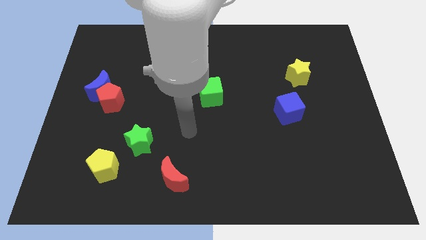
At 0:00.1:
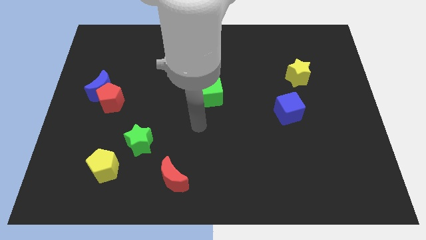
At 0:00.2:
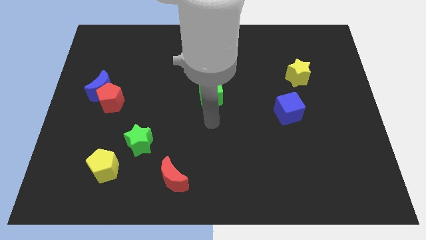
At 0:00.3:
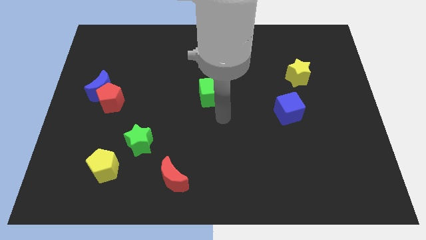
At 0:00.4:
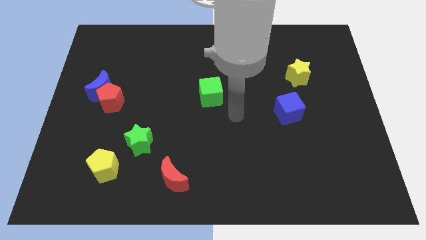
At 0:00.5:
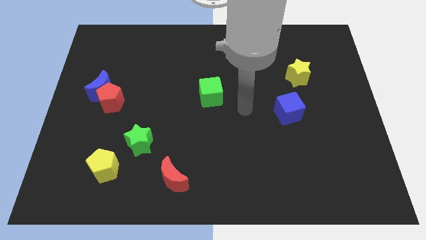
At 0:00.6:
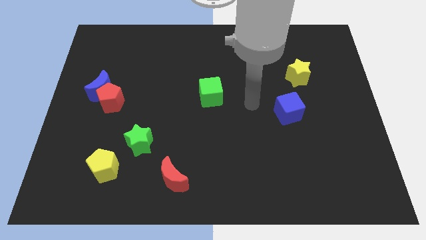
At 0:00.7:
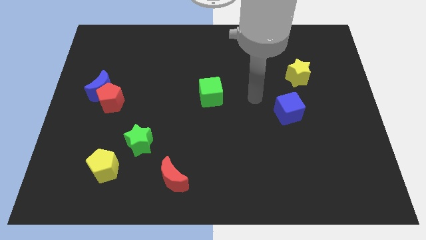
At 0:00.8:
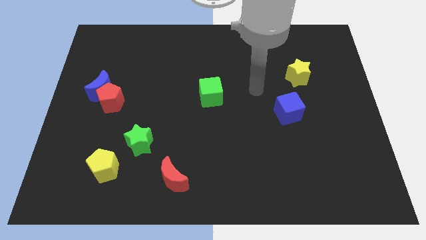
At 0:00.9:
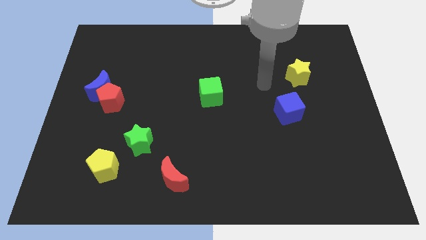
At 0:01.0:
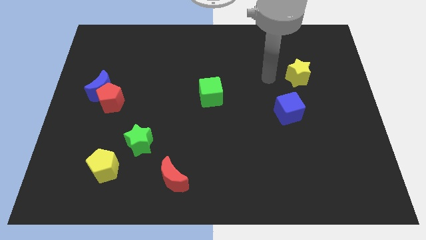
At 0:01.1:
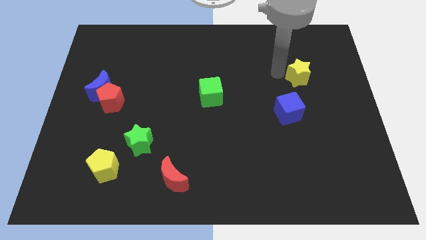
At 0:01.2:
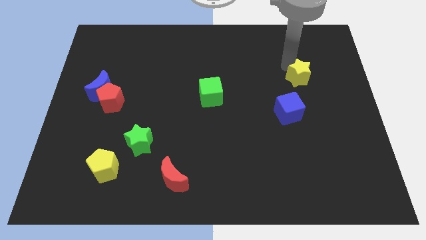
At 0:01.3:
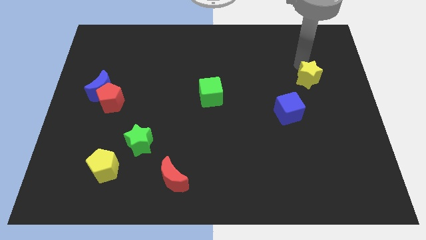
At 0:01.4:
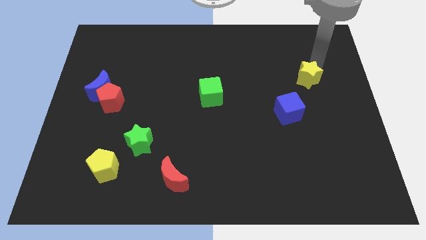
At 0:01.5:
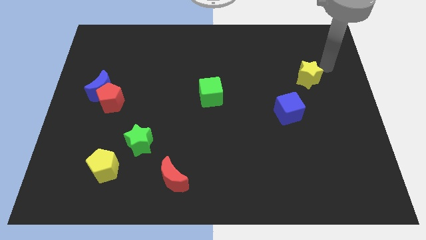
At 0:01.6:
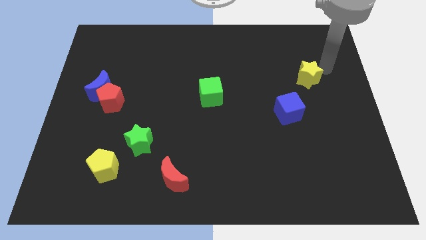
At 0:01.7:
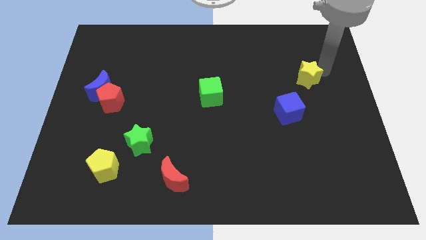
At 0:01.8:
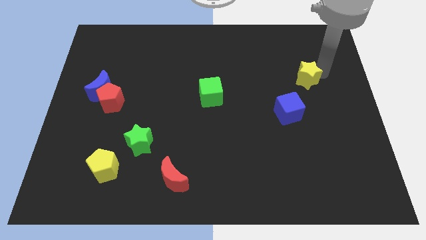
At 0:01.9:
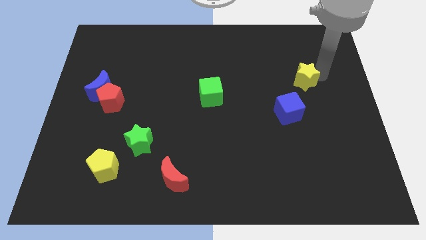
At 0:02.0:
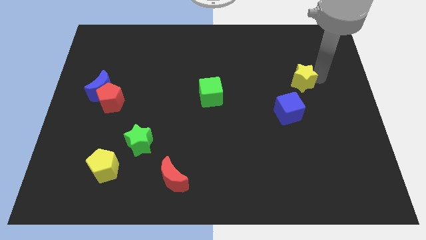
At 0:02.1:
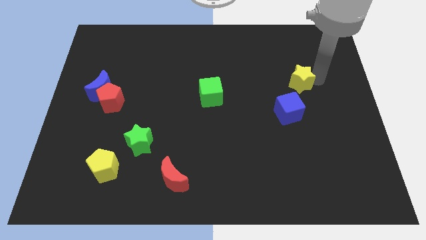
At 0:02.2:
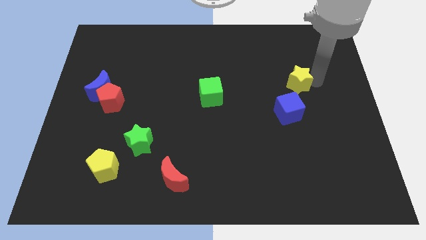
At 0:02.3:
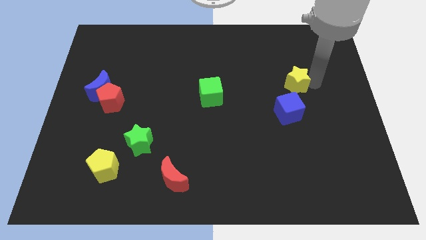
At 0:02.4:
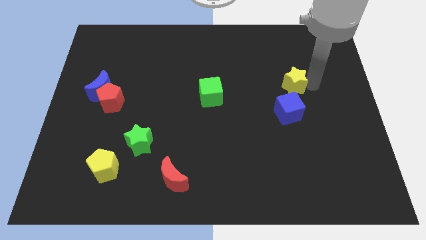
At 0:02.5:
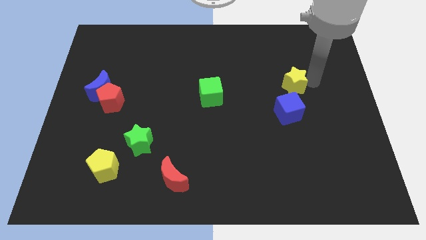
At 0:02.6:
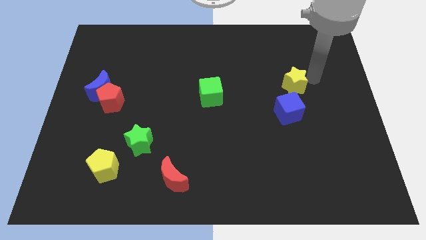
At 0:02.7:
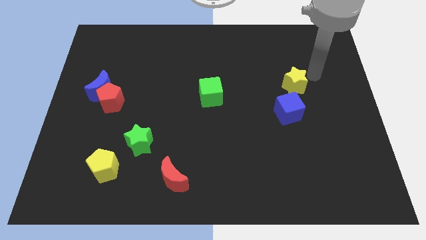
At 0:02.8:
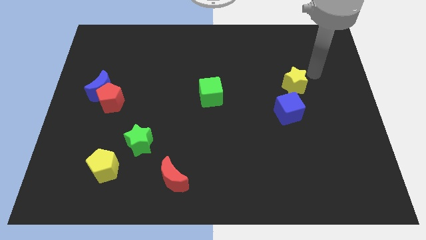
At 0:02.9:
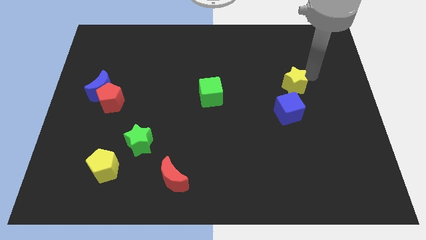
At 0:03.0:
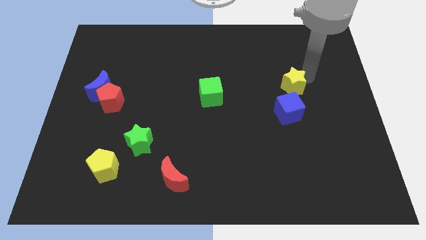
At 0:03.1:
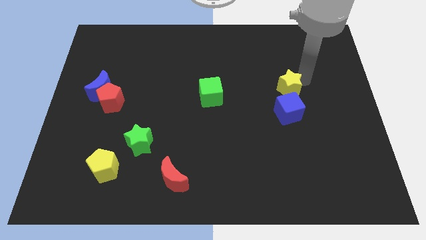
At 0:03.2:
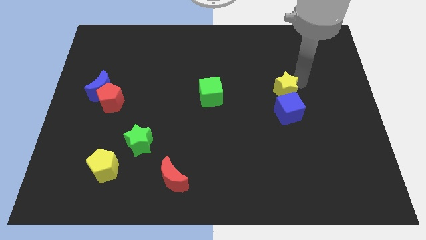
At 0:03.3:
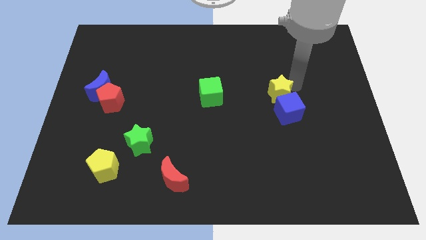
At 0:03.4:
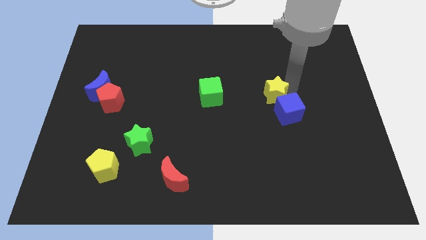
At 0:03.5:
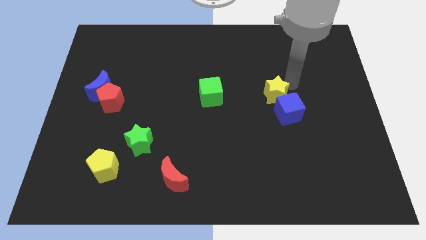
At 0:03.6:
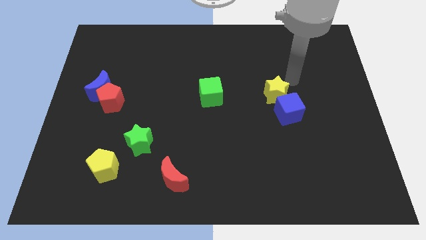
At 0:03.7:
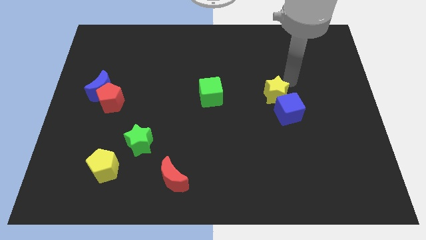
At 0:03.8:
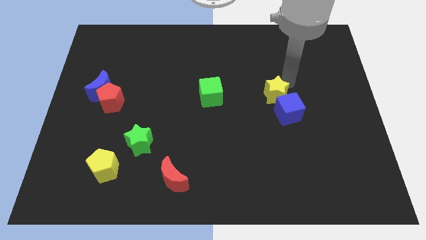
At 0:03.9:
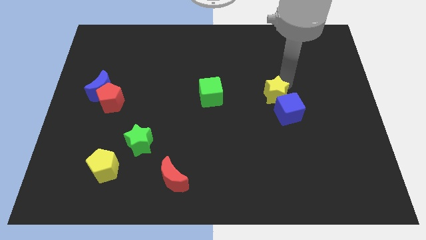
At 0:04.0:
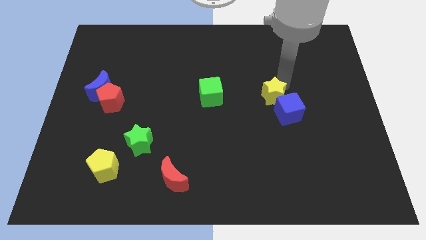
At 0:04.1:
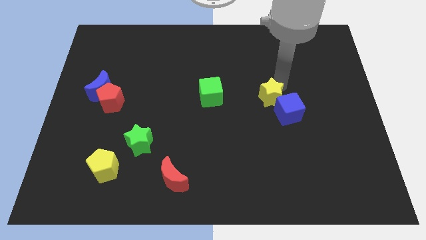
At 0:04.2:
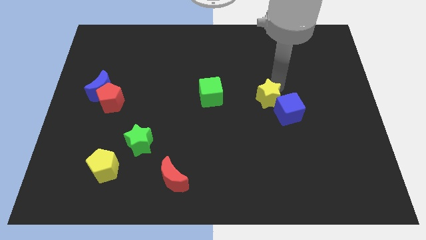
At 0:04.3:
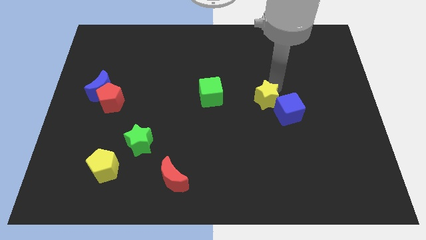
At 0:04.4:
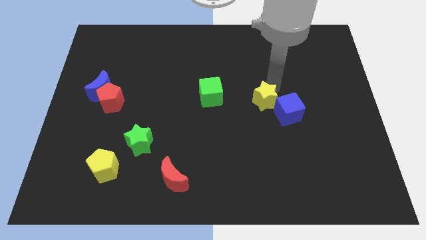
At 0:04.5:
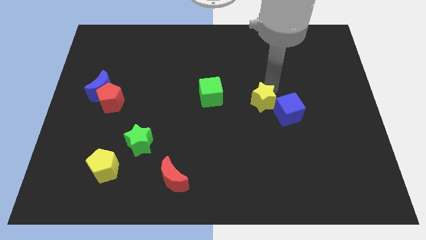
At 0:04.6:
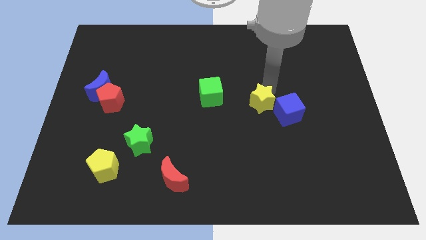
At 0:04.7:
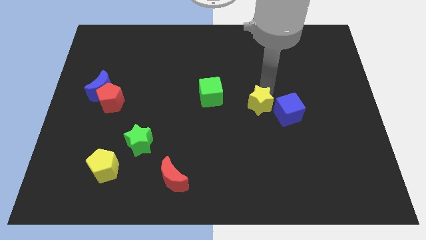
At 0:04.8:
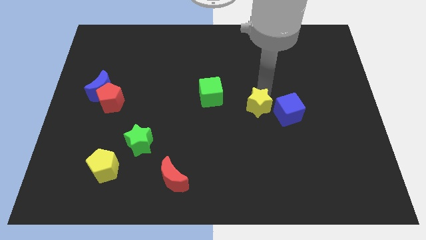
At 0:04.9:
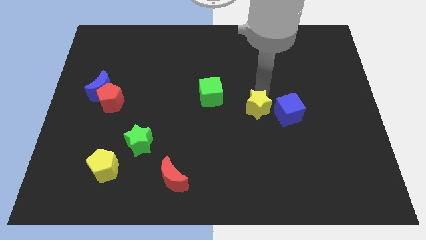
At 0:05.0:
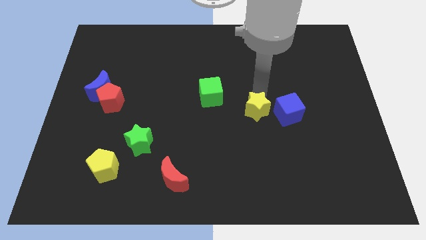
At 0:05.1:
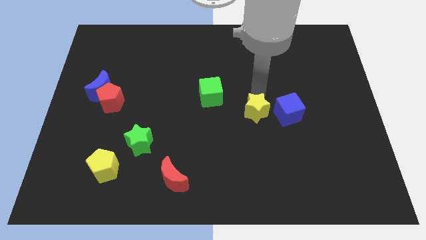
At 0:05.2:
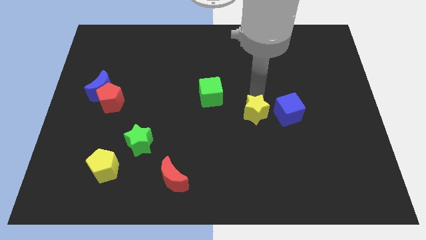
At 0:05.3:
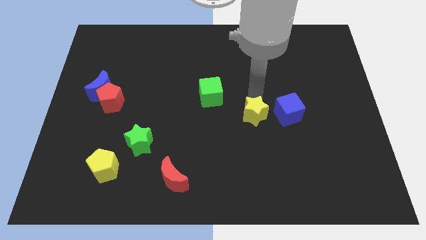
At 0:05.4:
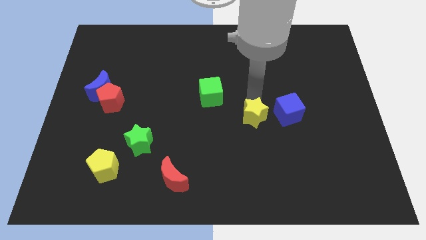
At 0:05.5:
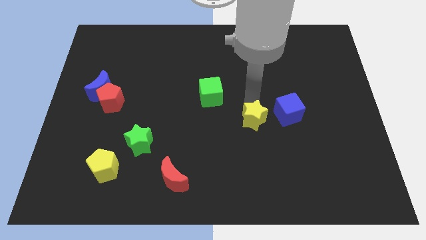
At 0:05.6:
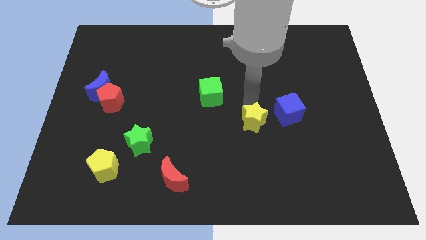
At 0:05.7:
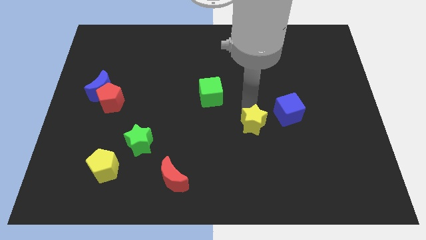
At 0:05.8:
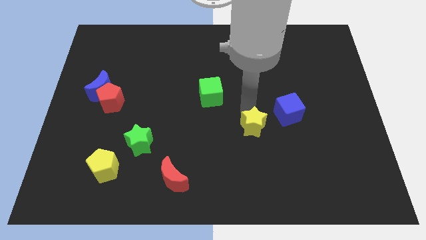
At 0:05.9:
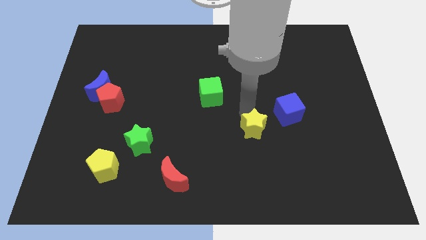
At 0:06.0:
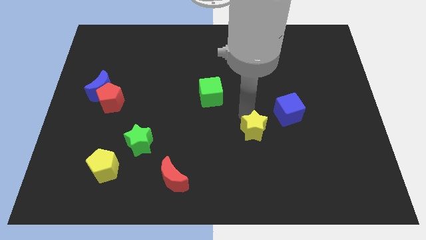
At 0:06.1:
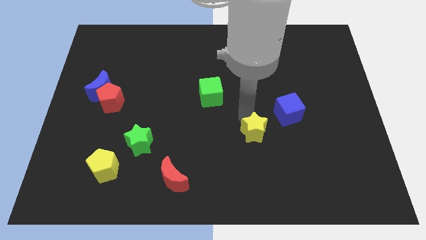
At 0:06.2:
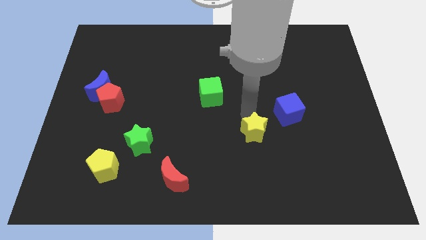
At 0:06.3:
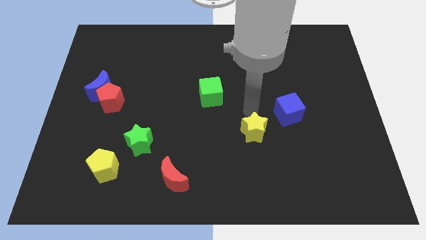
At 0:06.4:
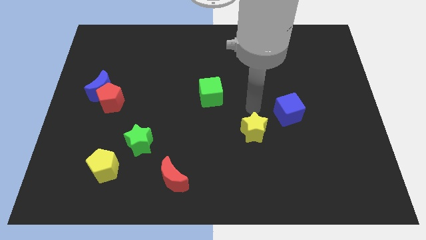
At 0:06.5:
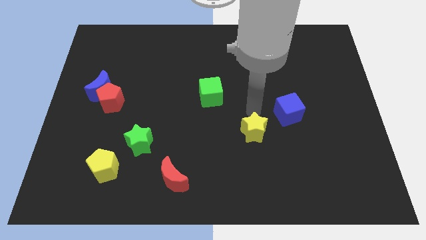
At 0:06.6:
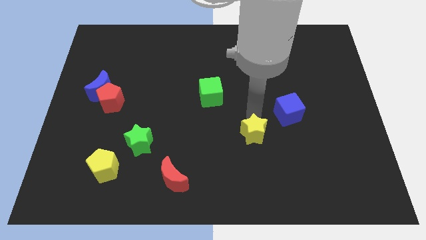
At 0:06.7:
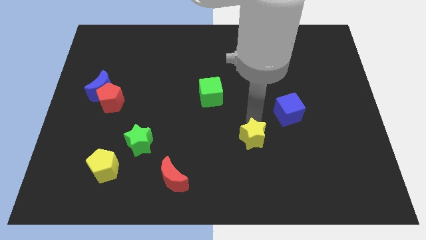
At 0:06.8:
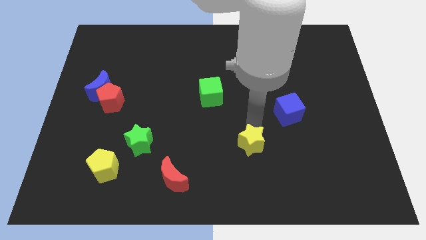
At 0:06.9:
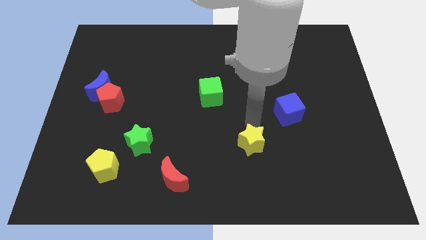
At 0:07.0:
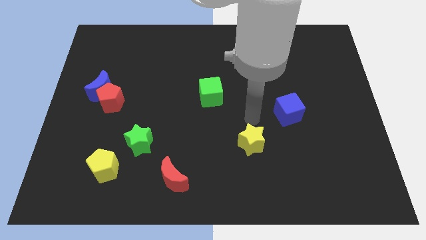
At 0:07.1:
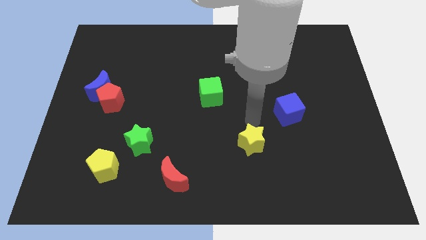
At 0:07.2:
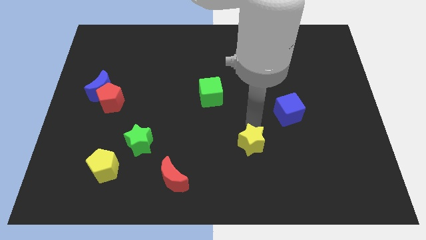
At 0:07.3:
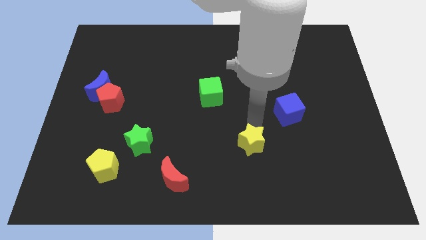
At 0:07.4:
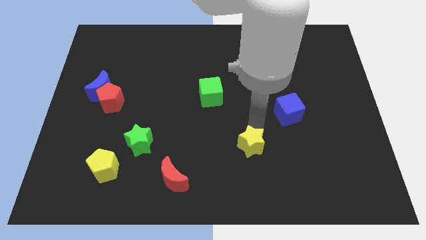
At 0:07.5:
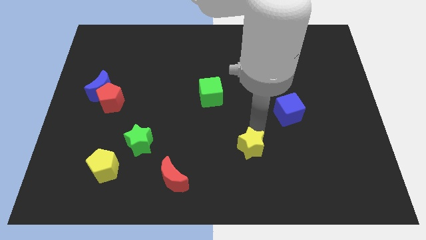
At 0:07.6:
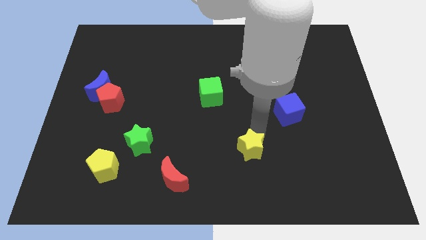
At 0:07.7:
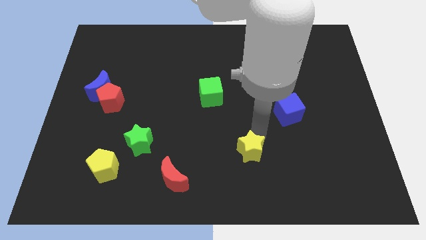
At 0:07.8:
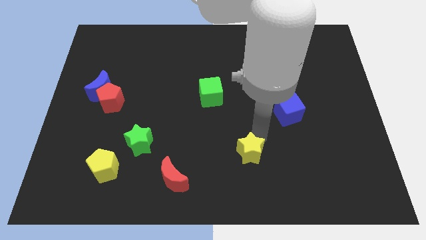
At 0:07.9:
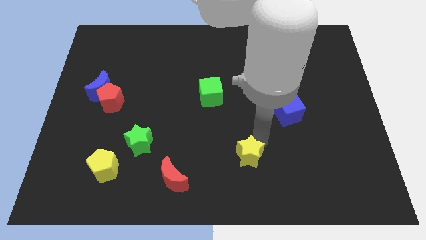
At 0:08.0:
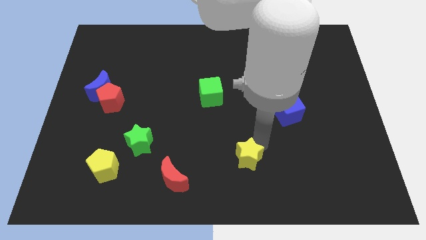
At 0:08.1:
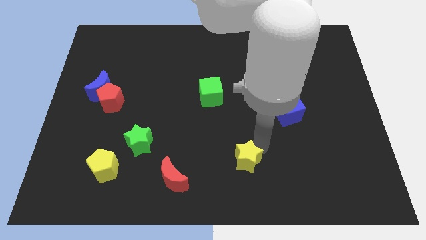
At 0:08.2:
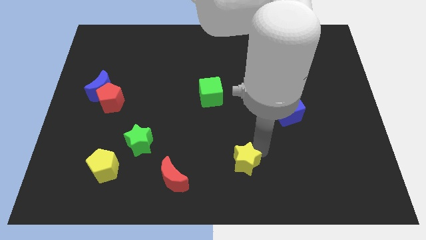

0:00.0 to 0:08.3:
push the yellow star to the bottom side
